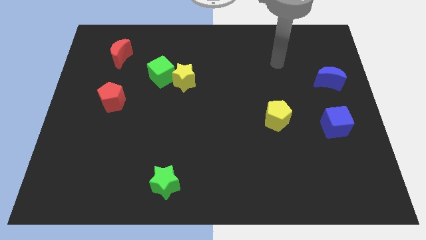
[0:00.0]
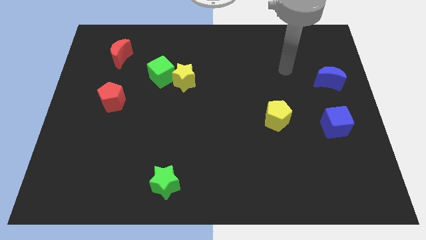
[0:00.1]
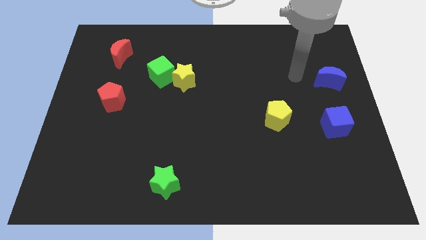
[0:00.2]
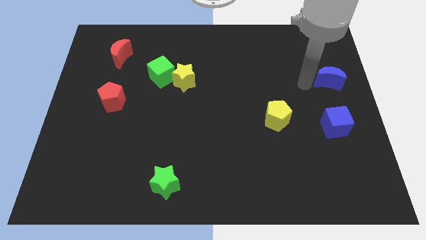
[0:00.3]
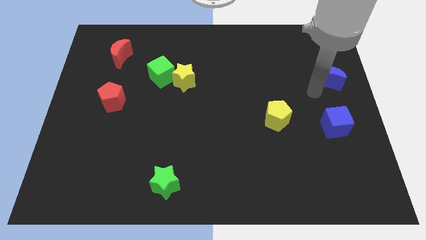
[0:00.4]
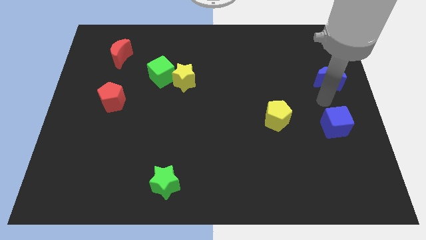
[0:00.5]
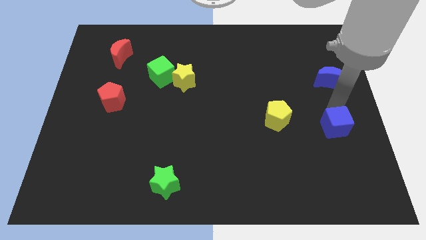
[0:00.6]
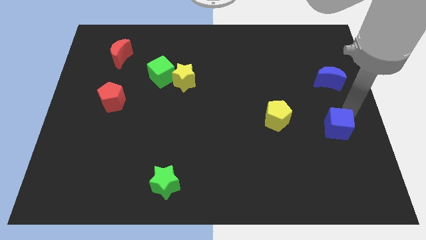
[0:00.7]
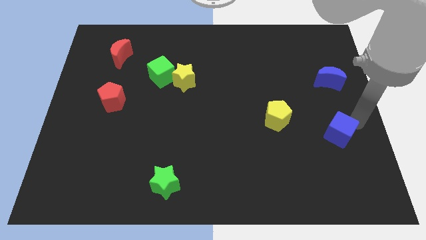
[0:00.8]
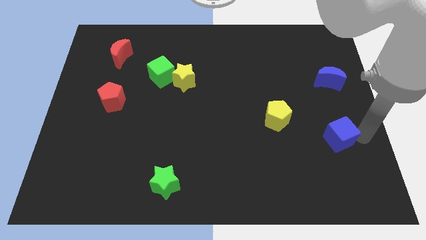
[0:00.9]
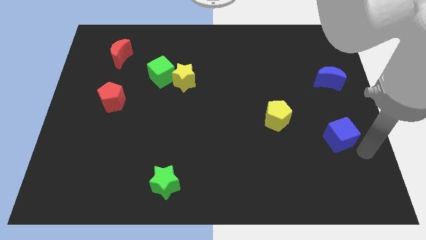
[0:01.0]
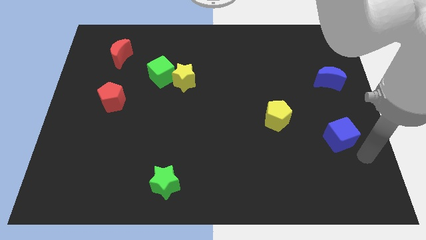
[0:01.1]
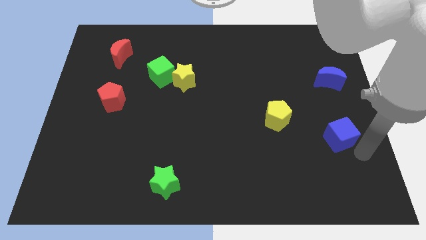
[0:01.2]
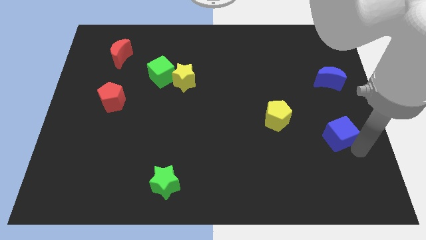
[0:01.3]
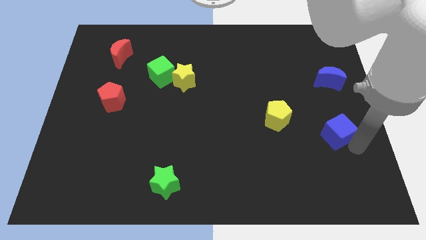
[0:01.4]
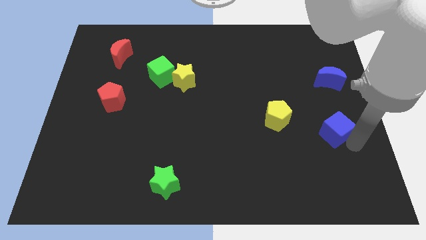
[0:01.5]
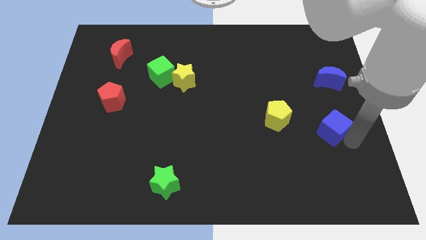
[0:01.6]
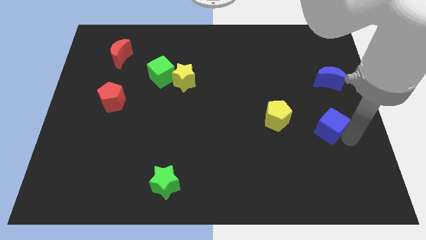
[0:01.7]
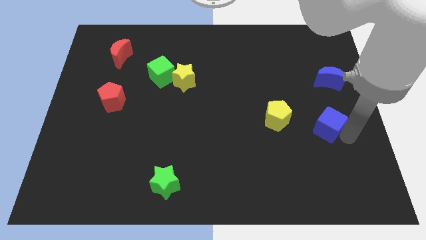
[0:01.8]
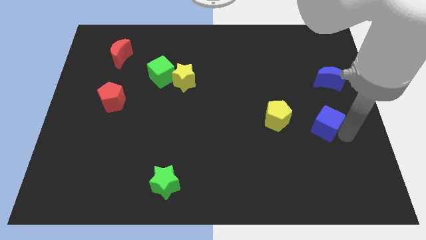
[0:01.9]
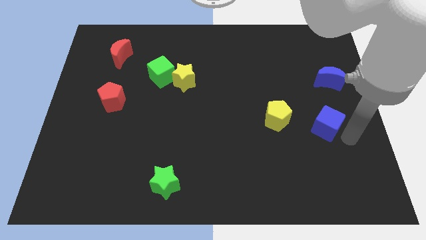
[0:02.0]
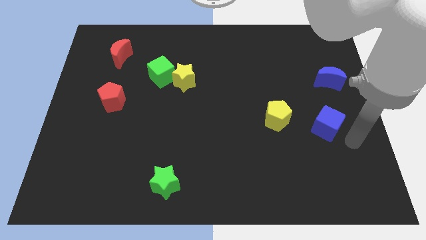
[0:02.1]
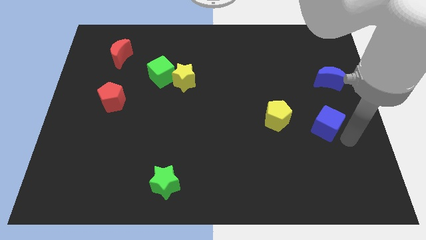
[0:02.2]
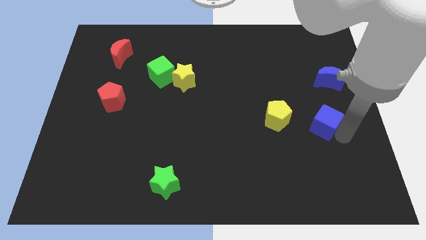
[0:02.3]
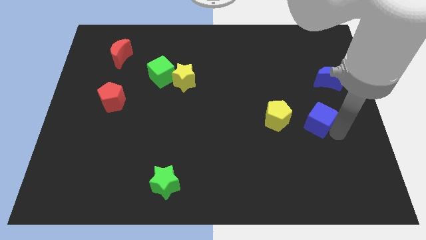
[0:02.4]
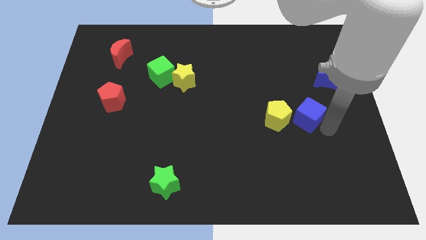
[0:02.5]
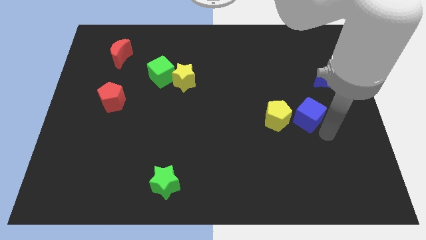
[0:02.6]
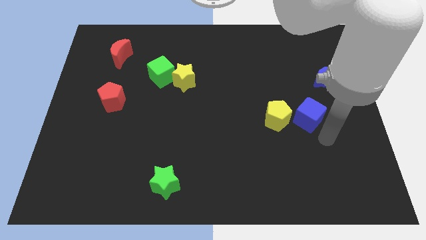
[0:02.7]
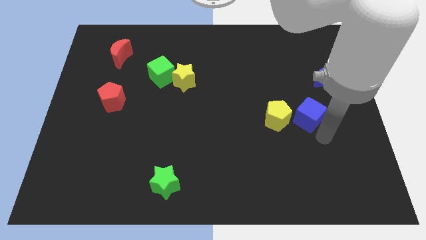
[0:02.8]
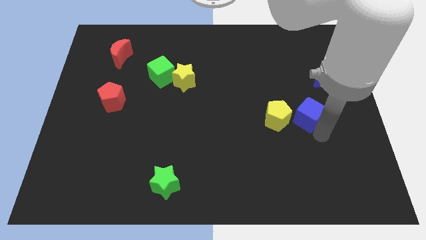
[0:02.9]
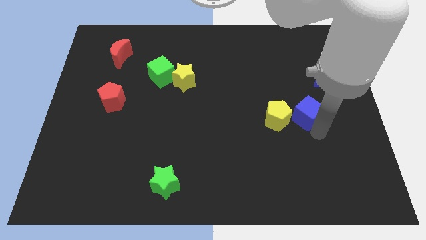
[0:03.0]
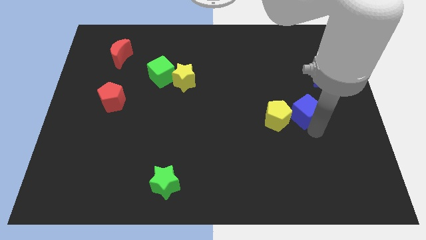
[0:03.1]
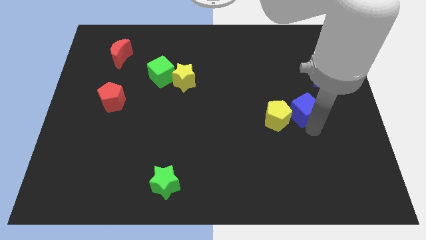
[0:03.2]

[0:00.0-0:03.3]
push the blue cube a little bit diagonally upwards and left

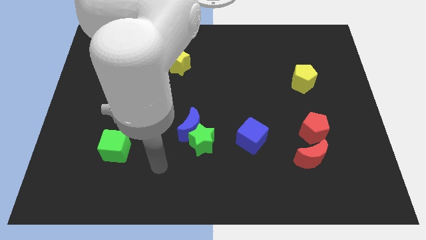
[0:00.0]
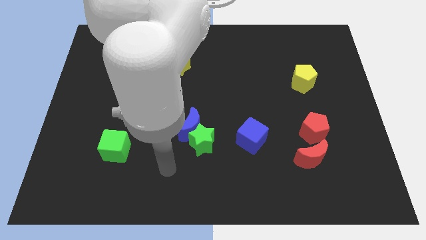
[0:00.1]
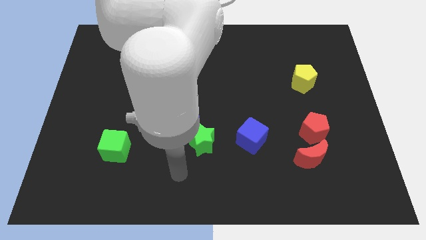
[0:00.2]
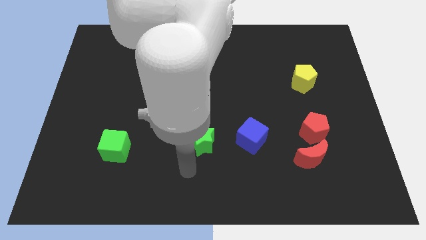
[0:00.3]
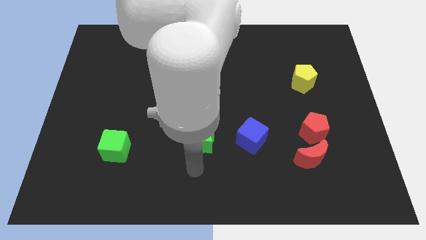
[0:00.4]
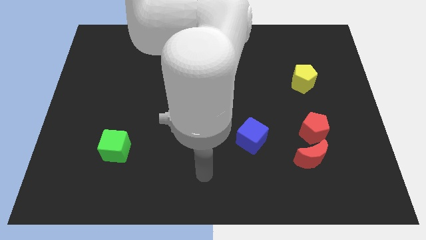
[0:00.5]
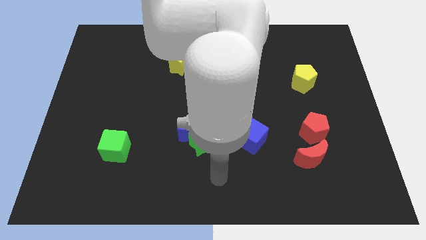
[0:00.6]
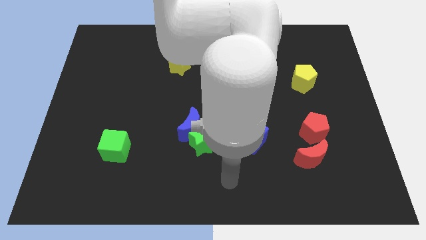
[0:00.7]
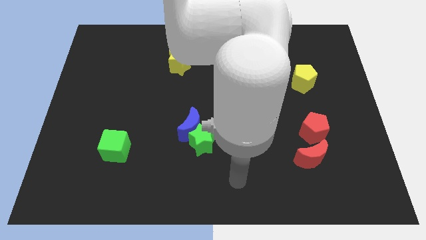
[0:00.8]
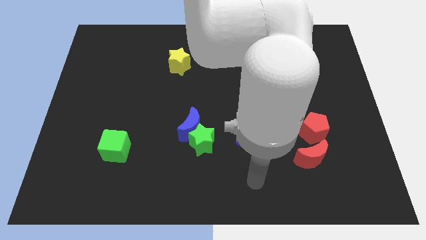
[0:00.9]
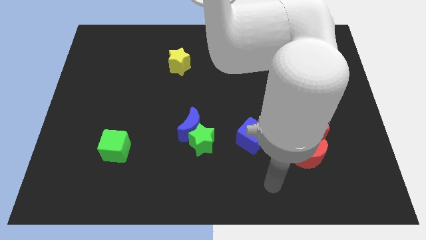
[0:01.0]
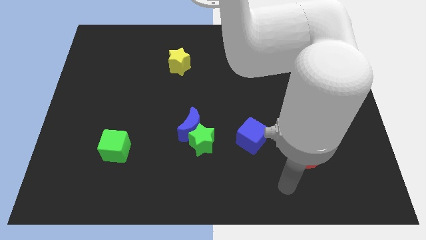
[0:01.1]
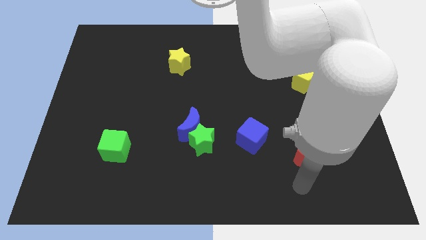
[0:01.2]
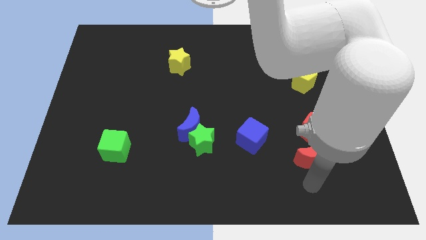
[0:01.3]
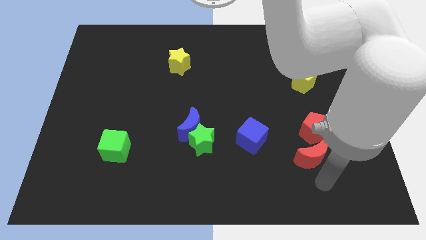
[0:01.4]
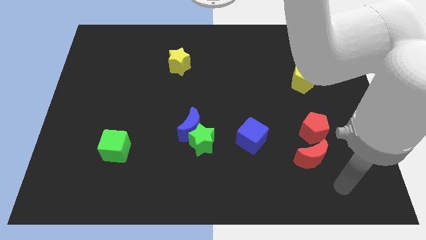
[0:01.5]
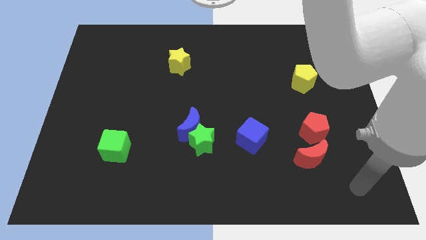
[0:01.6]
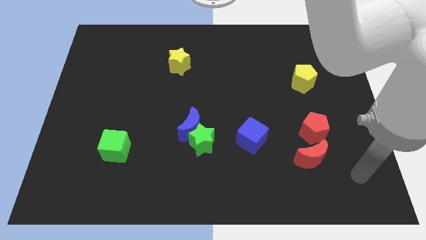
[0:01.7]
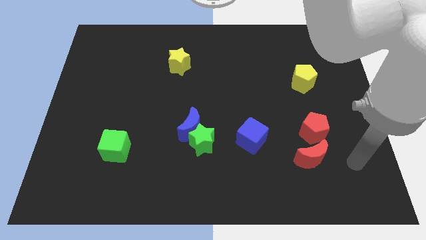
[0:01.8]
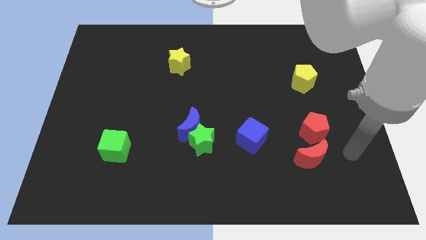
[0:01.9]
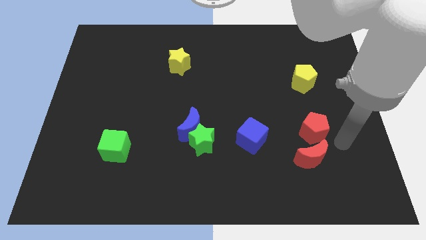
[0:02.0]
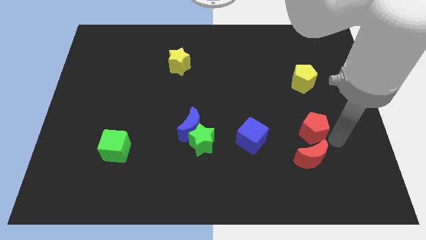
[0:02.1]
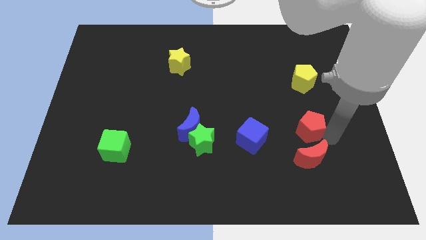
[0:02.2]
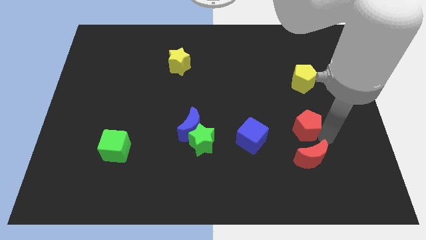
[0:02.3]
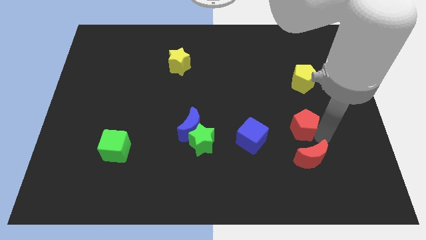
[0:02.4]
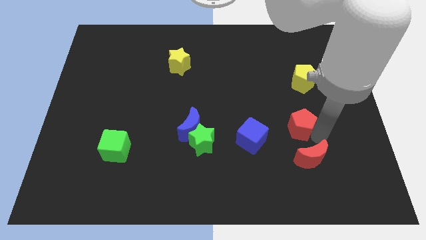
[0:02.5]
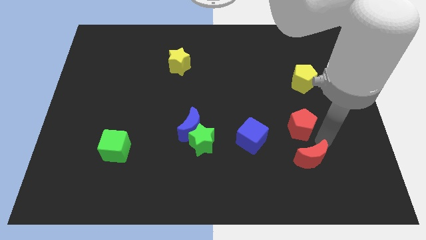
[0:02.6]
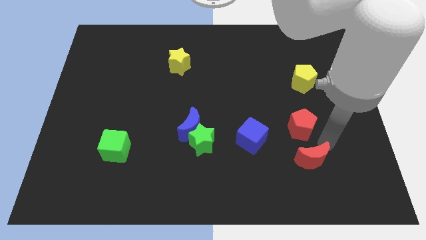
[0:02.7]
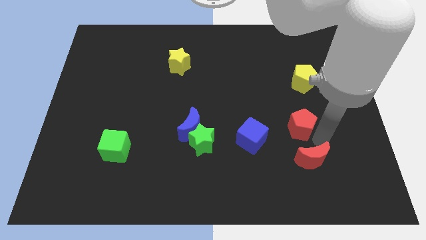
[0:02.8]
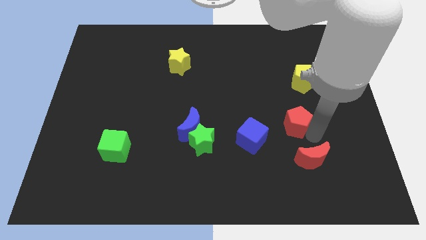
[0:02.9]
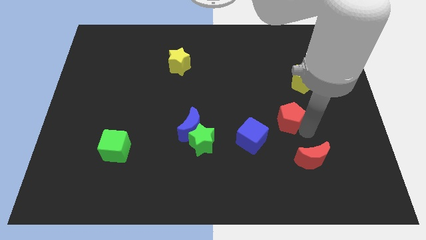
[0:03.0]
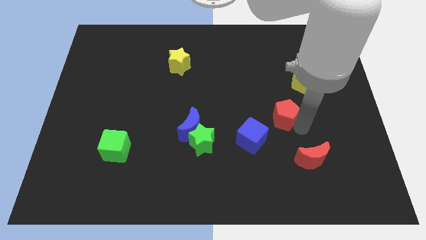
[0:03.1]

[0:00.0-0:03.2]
move the red pentagon up and then left a bit

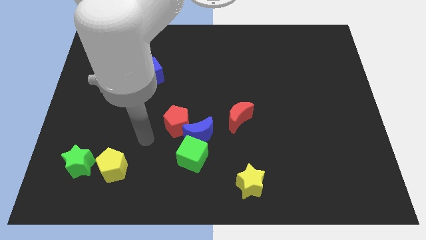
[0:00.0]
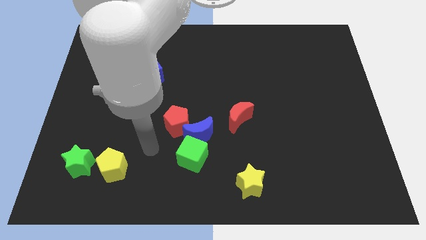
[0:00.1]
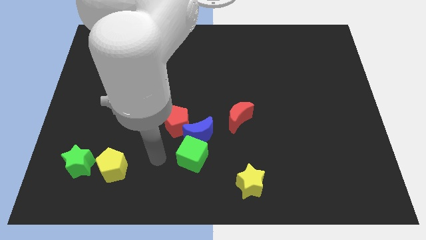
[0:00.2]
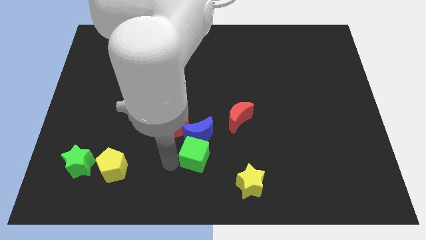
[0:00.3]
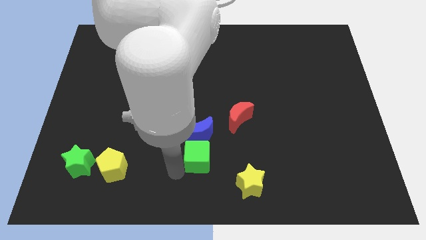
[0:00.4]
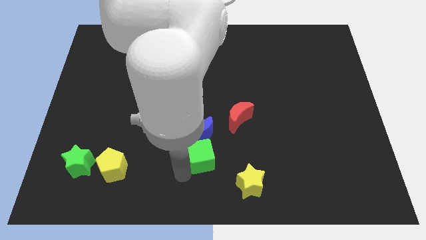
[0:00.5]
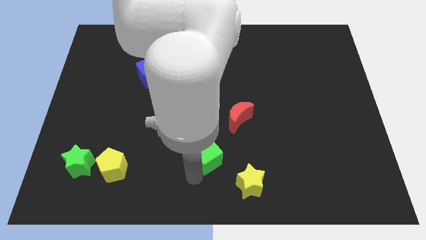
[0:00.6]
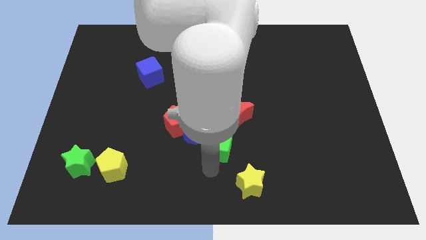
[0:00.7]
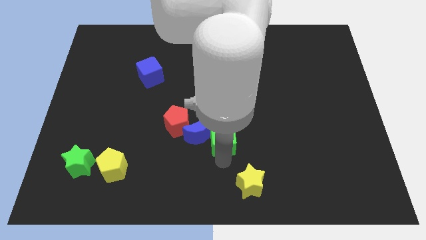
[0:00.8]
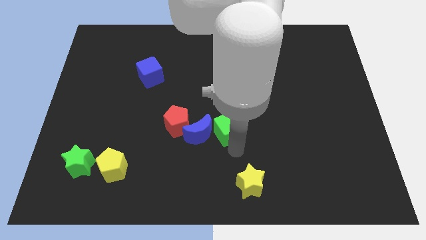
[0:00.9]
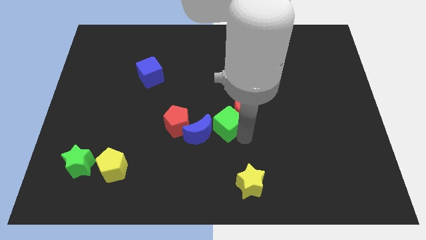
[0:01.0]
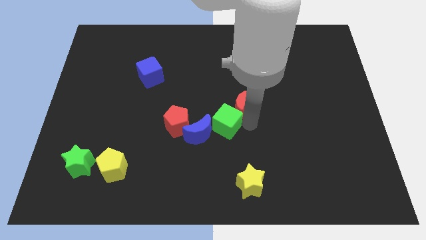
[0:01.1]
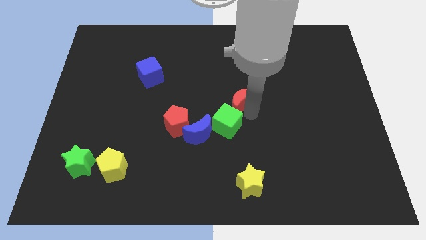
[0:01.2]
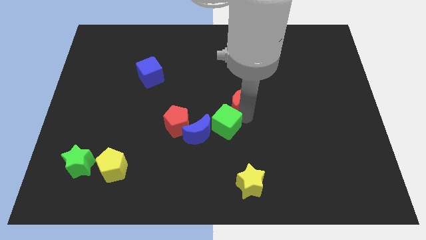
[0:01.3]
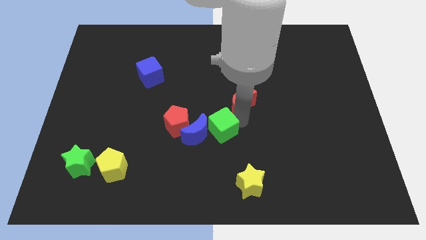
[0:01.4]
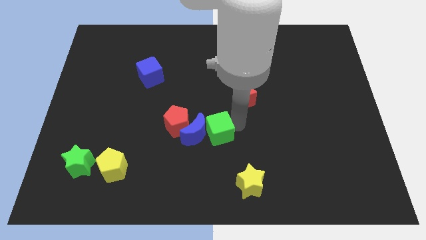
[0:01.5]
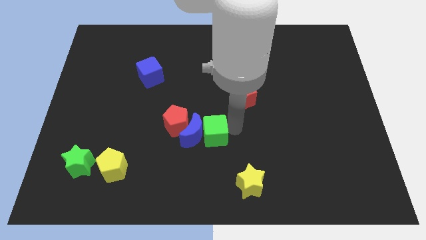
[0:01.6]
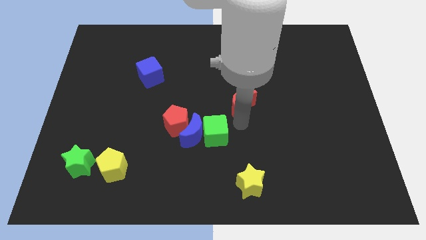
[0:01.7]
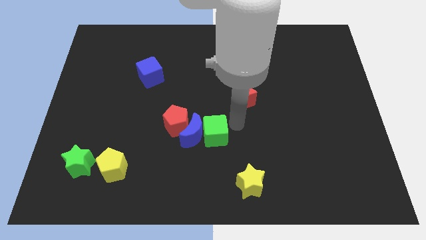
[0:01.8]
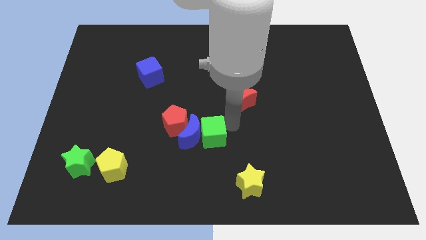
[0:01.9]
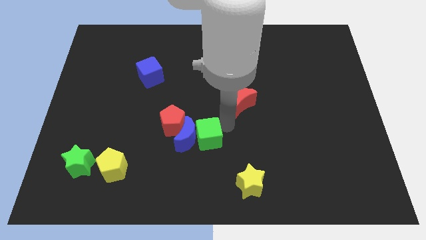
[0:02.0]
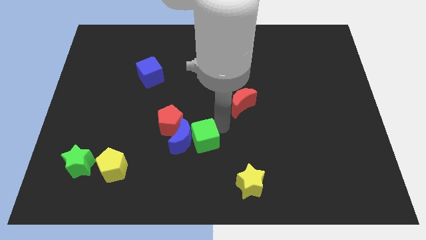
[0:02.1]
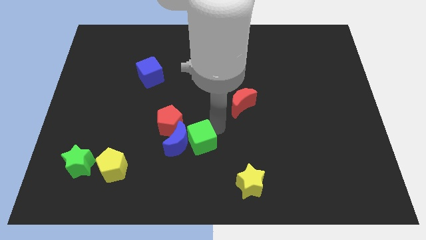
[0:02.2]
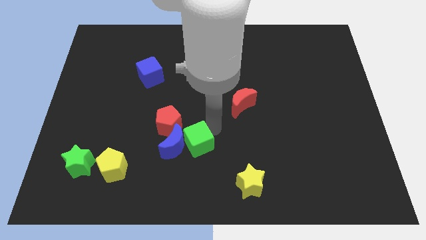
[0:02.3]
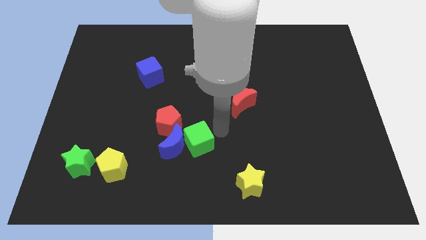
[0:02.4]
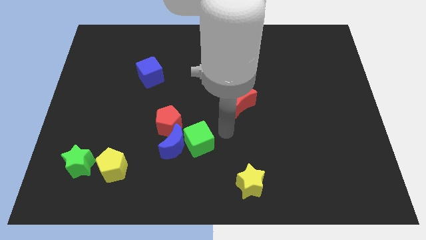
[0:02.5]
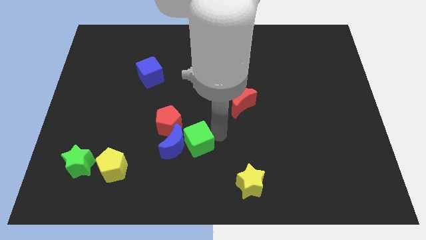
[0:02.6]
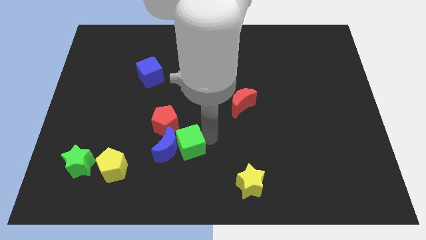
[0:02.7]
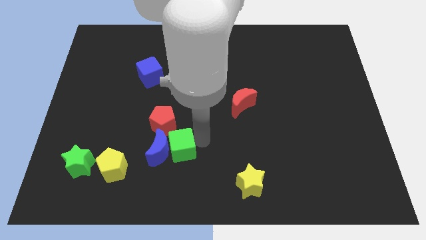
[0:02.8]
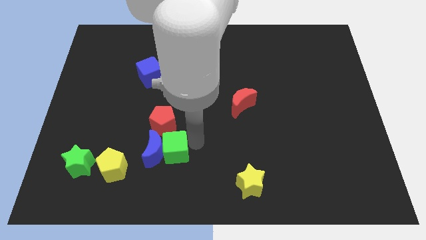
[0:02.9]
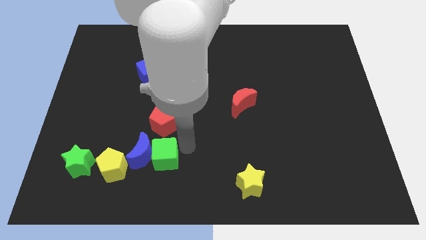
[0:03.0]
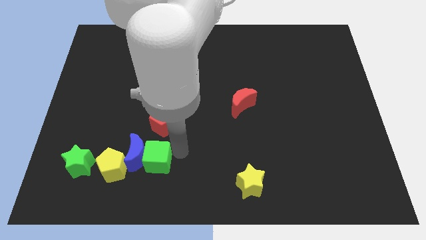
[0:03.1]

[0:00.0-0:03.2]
move the green cube slightly left
